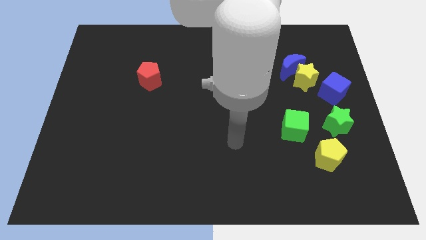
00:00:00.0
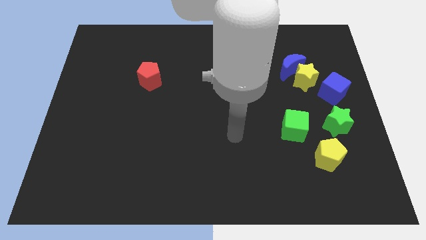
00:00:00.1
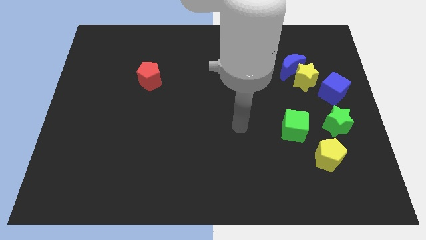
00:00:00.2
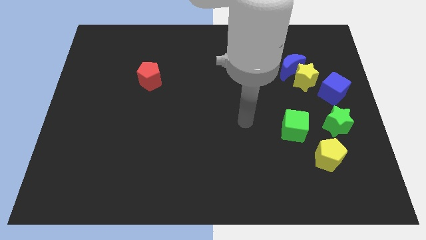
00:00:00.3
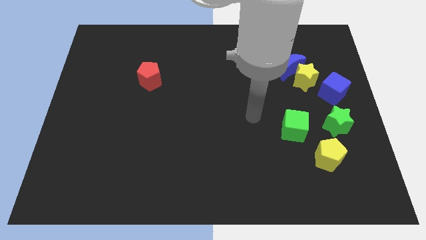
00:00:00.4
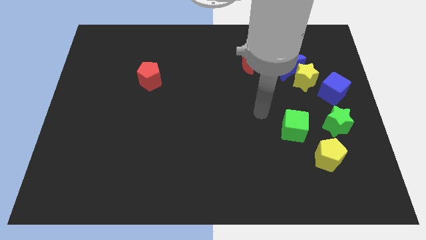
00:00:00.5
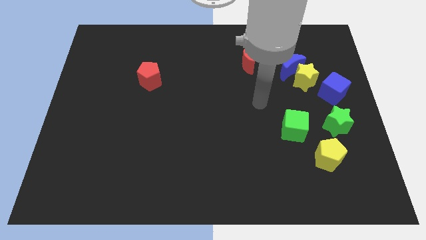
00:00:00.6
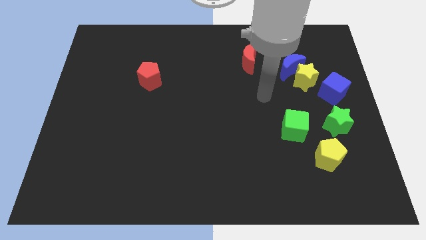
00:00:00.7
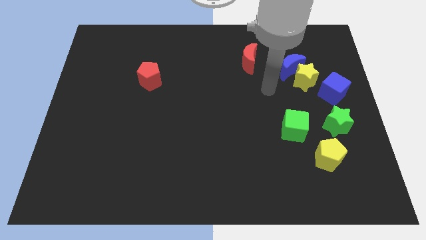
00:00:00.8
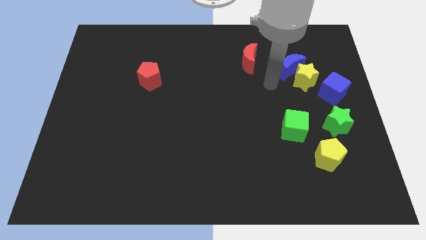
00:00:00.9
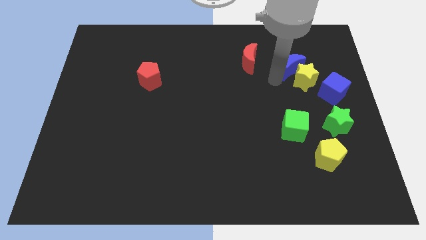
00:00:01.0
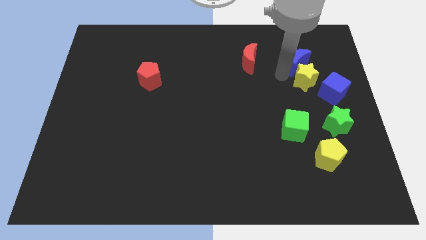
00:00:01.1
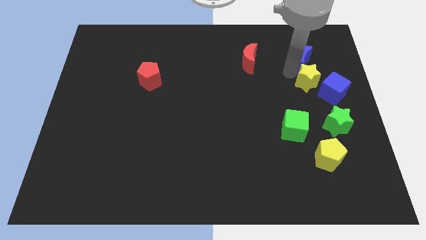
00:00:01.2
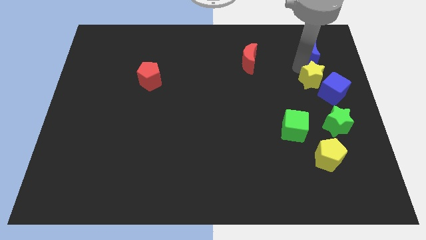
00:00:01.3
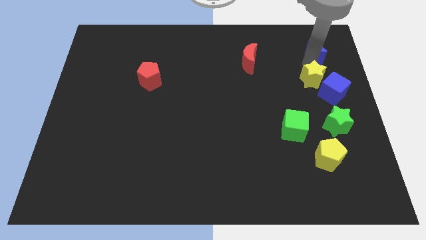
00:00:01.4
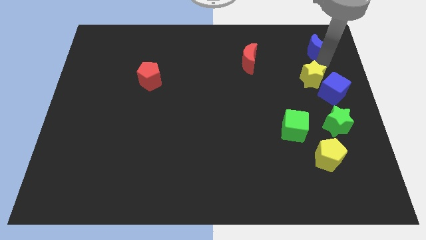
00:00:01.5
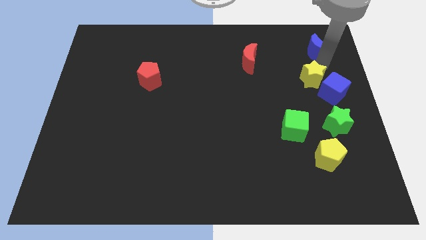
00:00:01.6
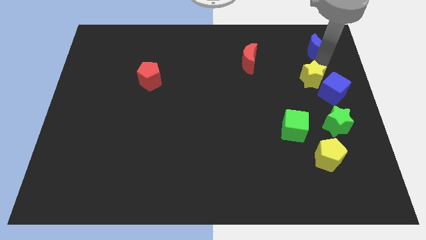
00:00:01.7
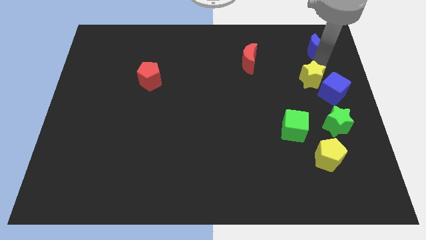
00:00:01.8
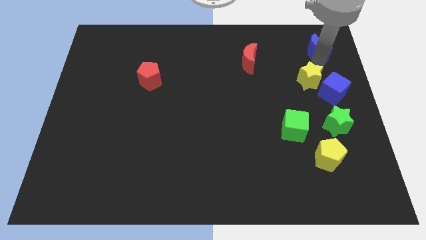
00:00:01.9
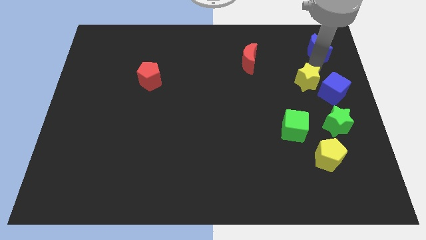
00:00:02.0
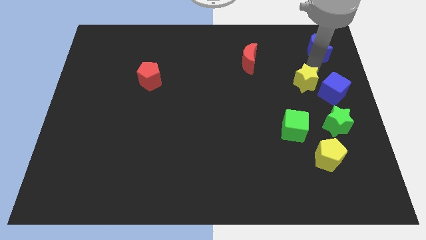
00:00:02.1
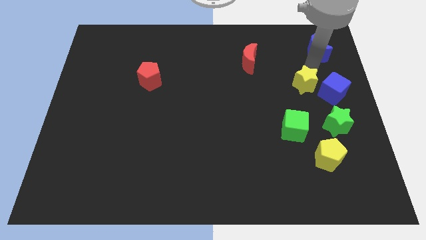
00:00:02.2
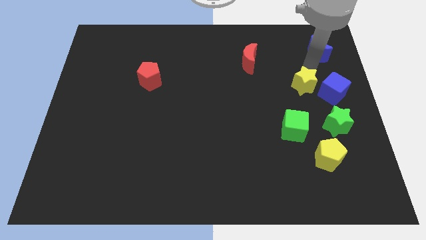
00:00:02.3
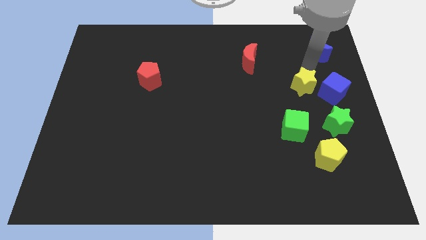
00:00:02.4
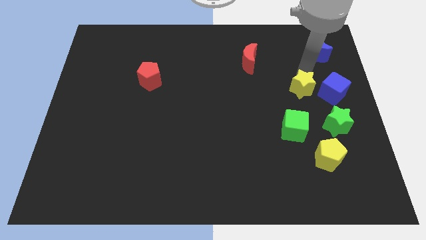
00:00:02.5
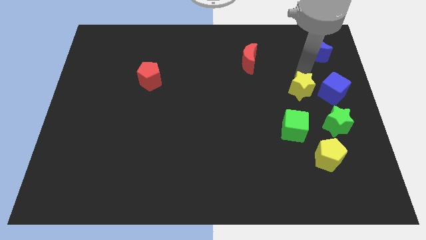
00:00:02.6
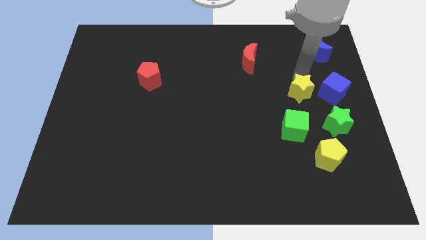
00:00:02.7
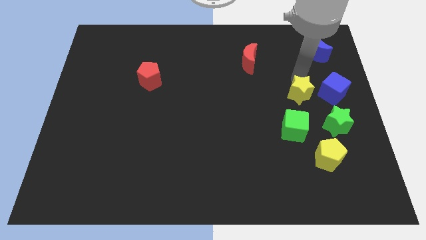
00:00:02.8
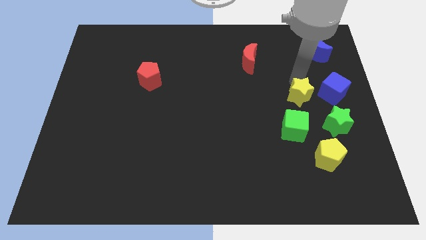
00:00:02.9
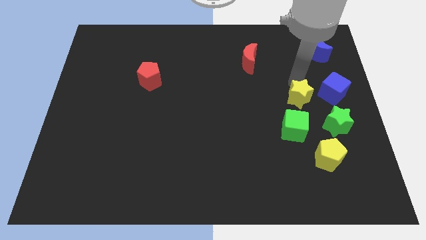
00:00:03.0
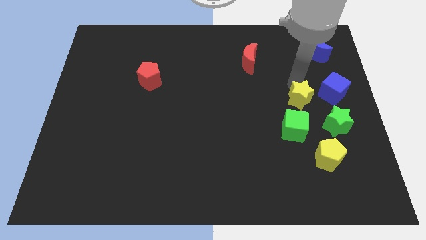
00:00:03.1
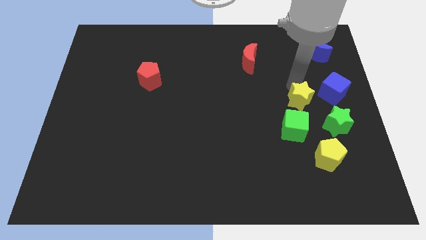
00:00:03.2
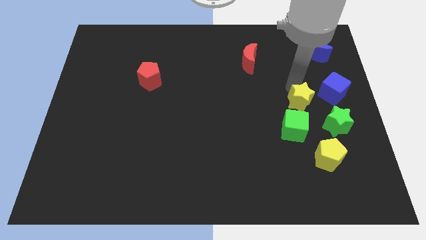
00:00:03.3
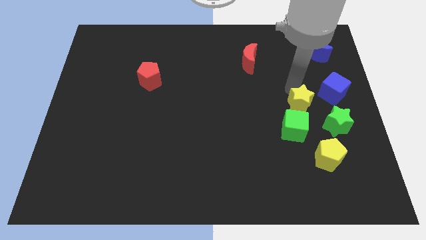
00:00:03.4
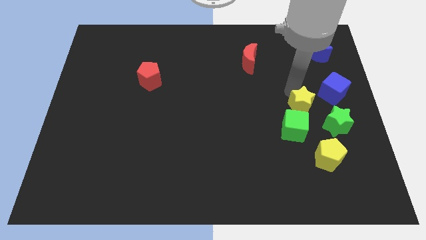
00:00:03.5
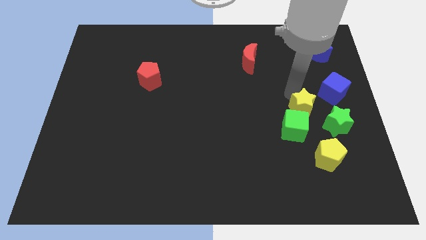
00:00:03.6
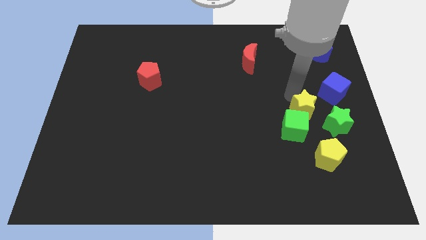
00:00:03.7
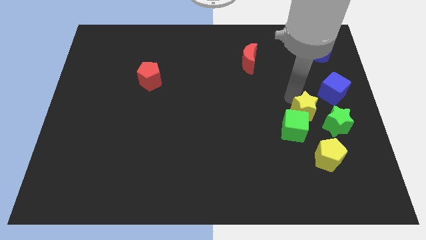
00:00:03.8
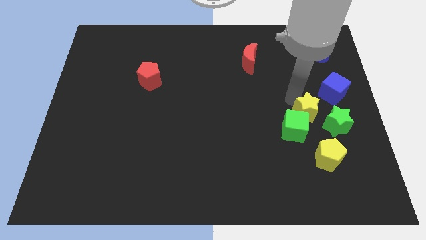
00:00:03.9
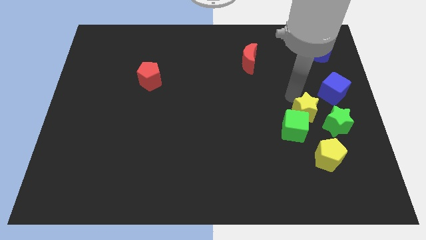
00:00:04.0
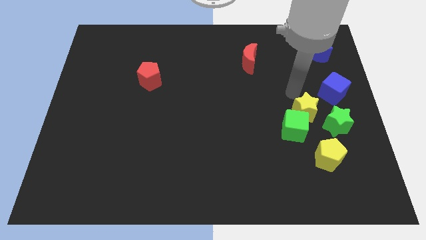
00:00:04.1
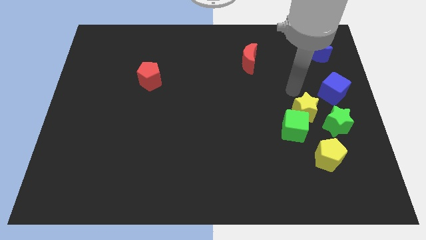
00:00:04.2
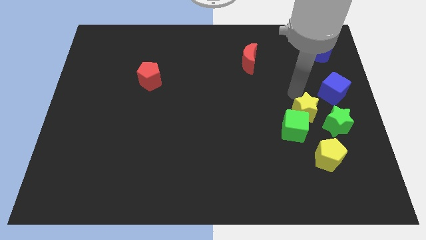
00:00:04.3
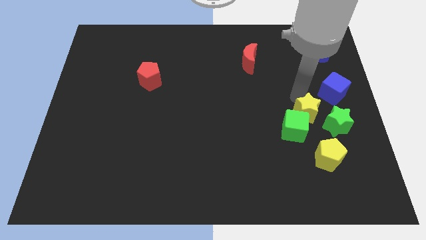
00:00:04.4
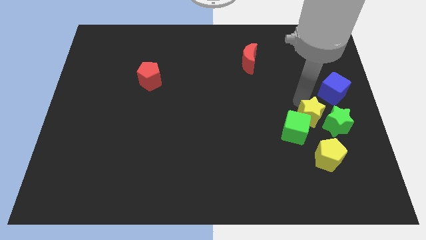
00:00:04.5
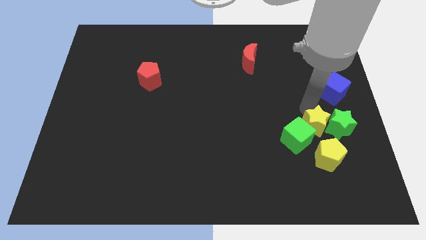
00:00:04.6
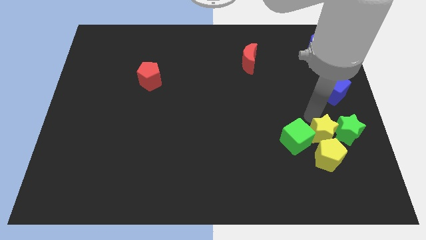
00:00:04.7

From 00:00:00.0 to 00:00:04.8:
push the yellow star towards the yellow pentagon

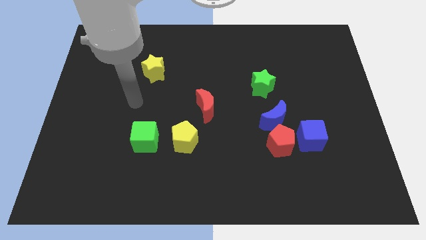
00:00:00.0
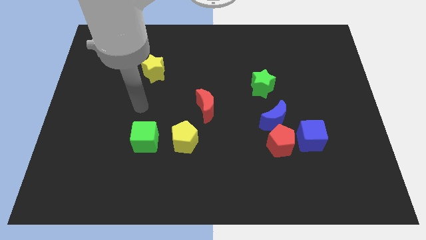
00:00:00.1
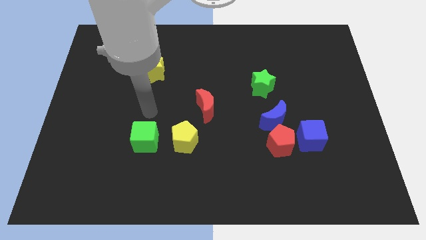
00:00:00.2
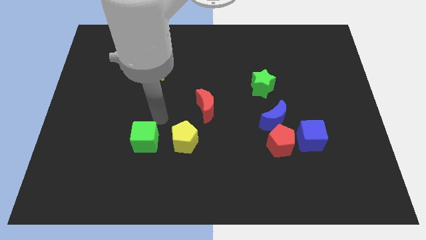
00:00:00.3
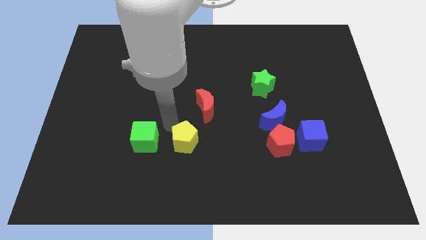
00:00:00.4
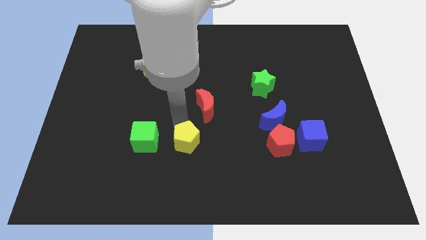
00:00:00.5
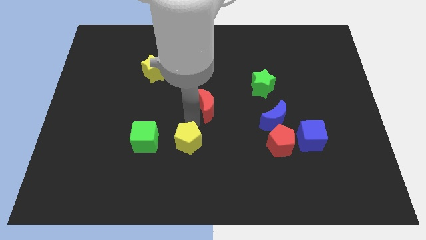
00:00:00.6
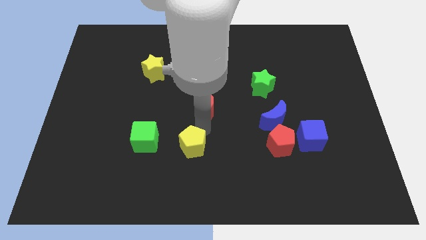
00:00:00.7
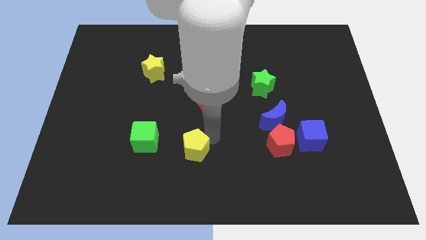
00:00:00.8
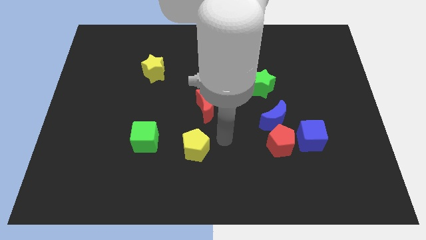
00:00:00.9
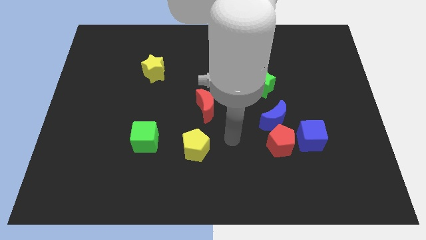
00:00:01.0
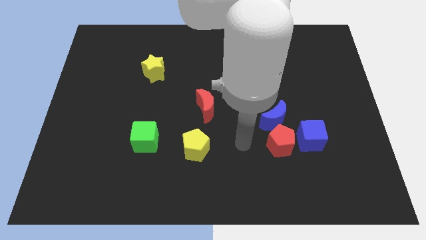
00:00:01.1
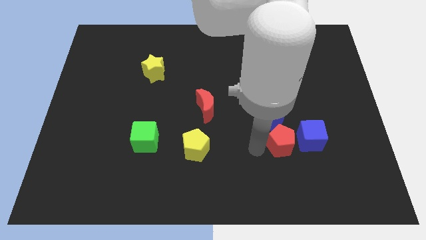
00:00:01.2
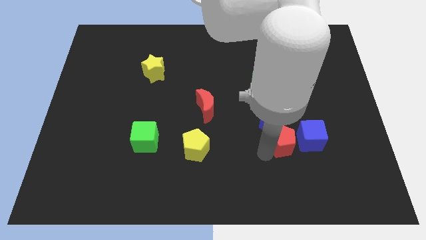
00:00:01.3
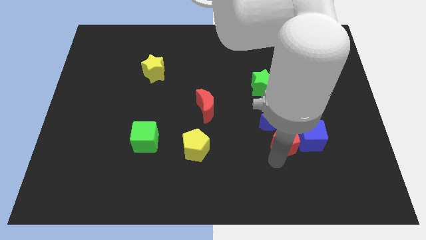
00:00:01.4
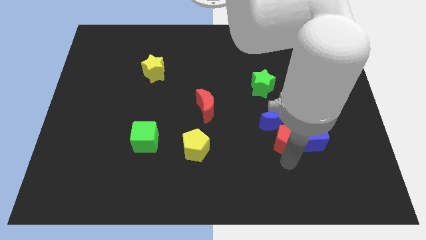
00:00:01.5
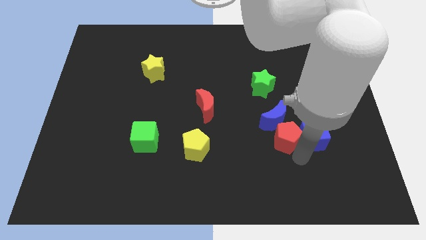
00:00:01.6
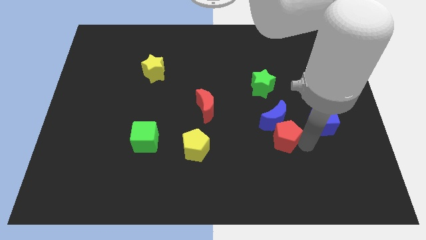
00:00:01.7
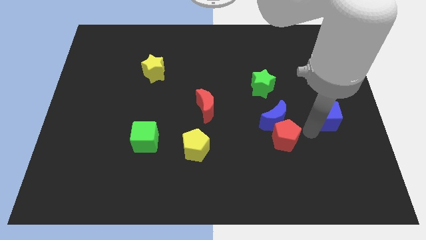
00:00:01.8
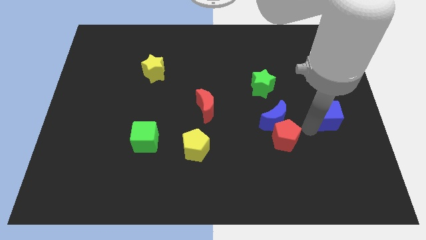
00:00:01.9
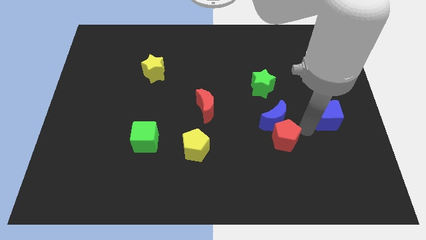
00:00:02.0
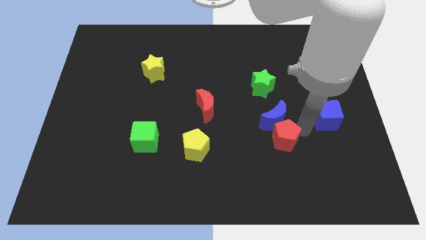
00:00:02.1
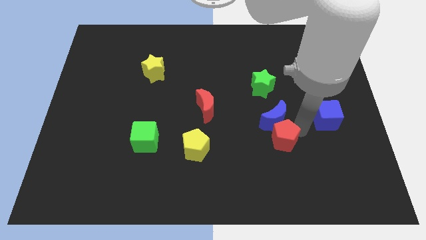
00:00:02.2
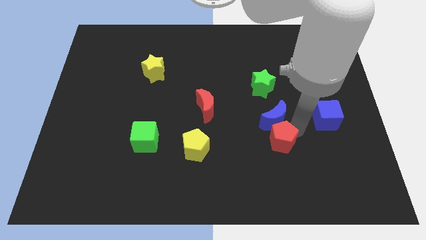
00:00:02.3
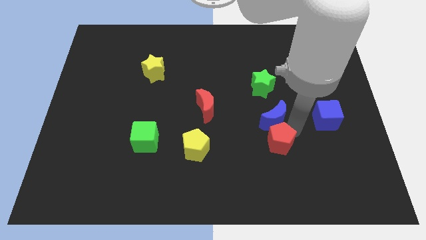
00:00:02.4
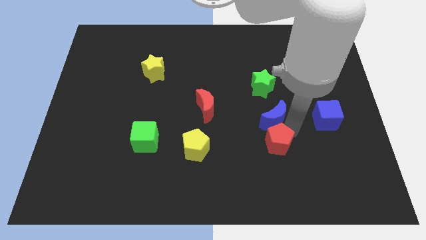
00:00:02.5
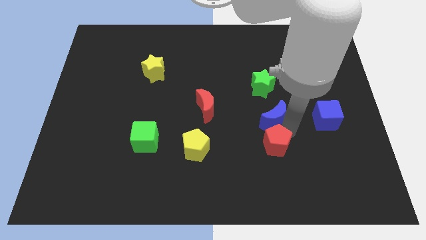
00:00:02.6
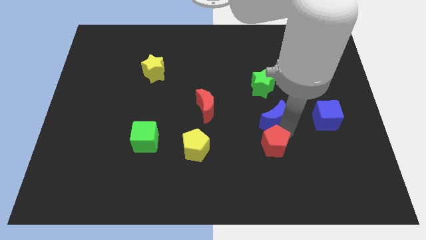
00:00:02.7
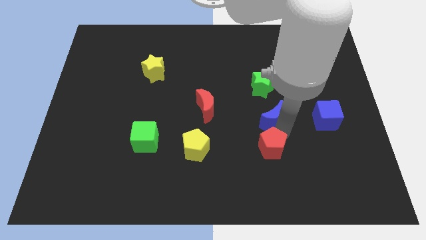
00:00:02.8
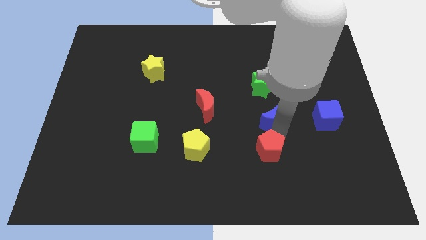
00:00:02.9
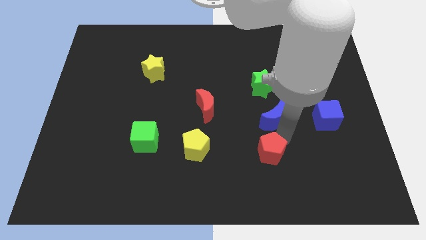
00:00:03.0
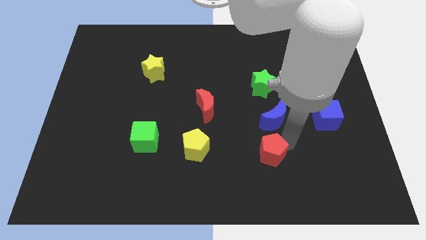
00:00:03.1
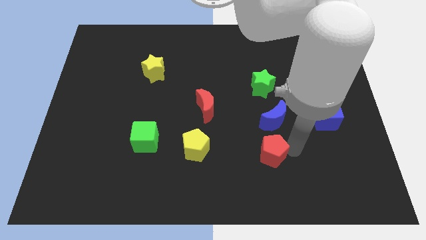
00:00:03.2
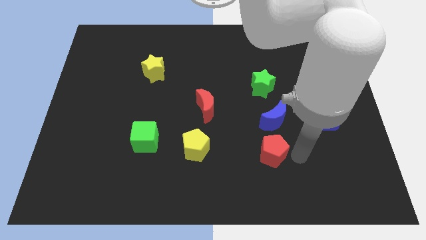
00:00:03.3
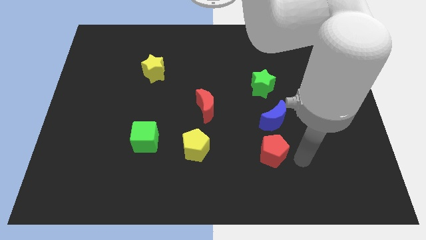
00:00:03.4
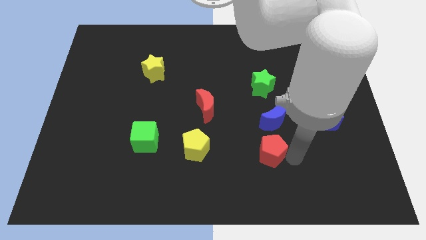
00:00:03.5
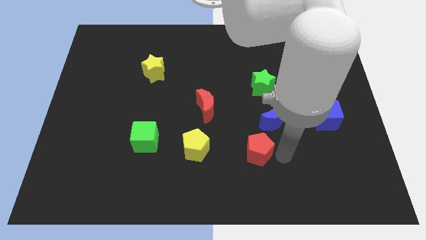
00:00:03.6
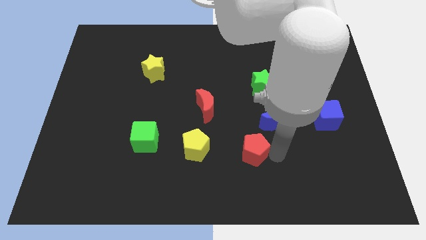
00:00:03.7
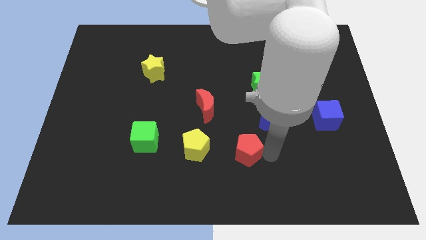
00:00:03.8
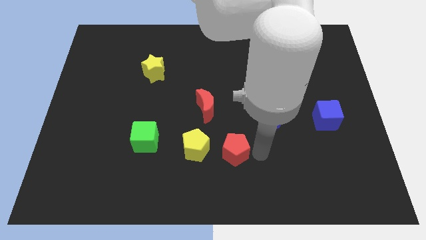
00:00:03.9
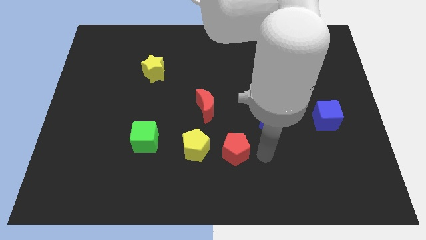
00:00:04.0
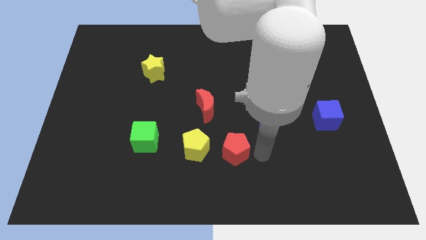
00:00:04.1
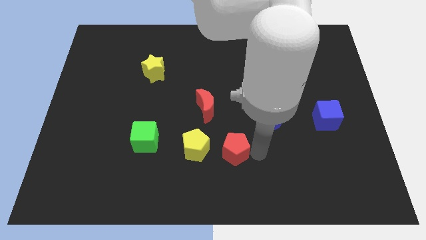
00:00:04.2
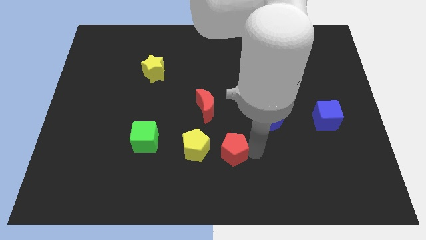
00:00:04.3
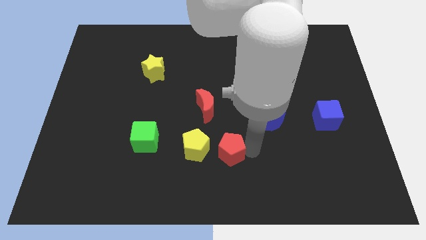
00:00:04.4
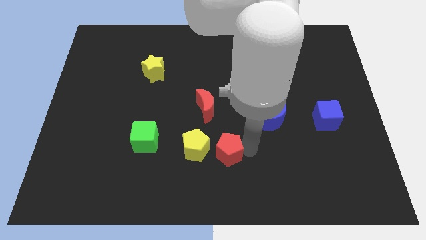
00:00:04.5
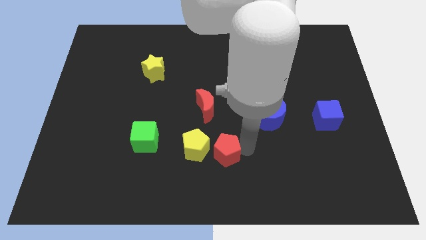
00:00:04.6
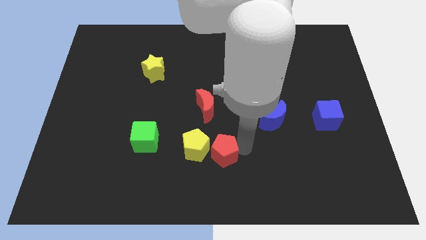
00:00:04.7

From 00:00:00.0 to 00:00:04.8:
put the red pentagon towards the yellow pentagon
